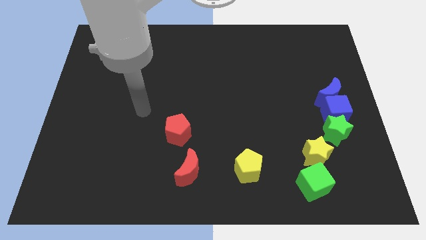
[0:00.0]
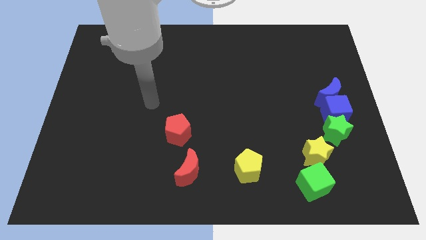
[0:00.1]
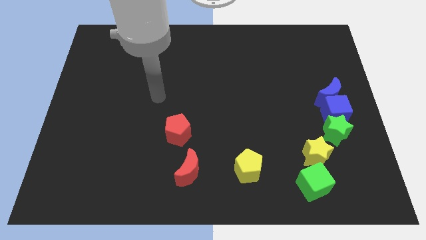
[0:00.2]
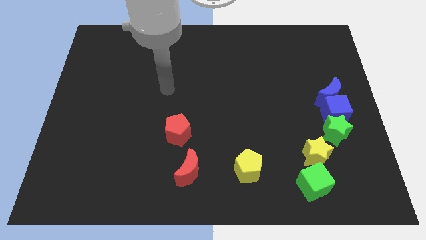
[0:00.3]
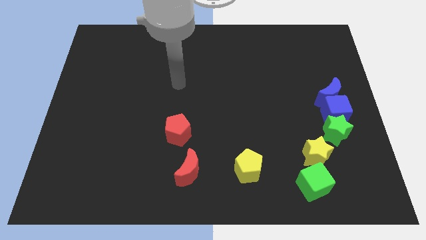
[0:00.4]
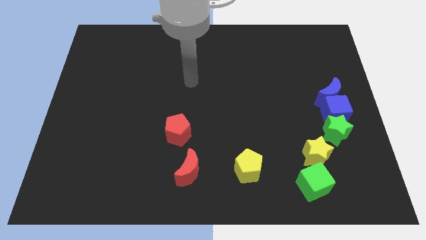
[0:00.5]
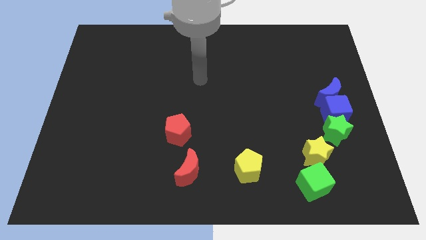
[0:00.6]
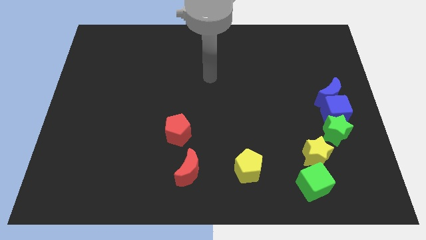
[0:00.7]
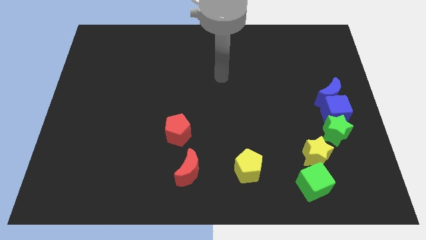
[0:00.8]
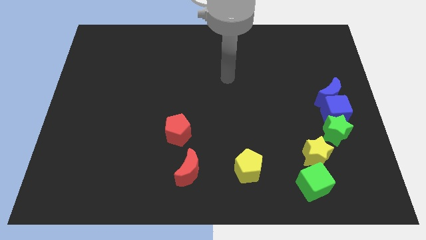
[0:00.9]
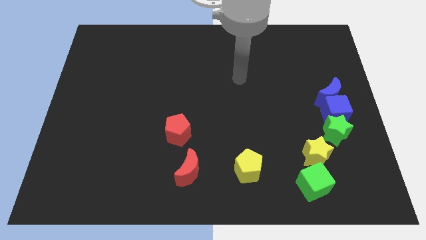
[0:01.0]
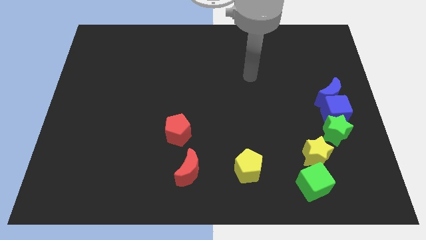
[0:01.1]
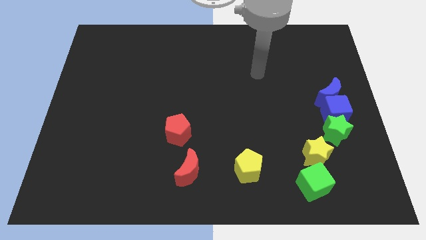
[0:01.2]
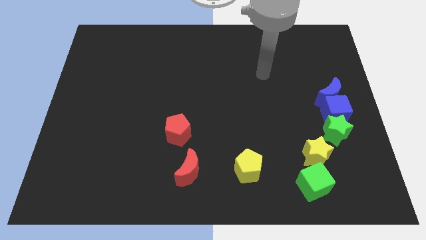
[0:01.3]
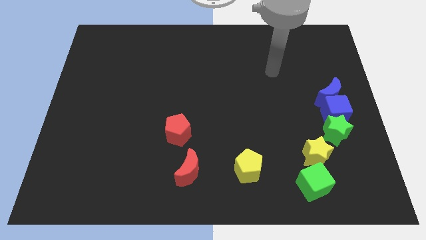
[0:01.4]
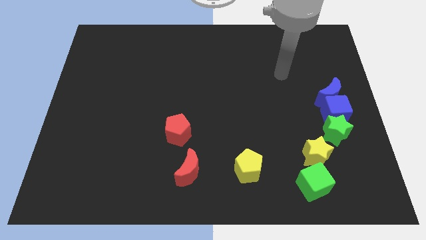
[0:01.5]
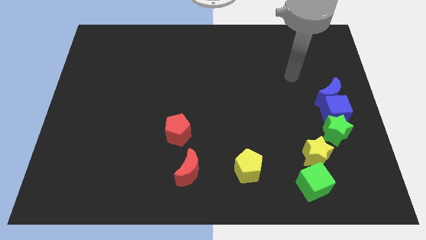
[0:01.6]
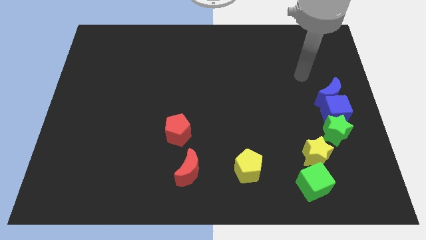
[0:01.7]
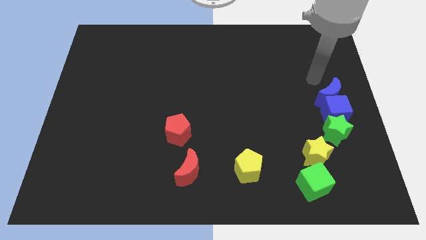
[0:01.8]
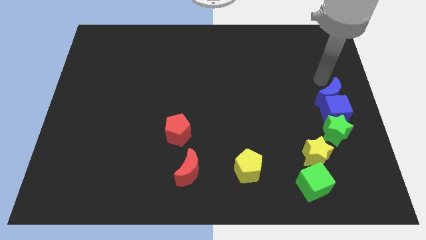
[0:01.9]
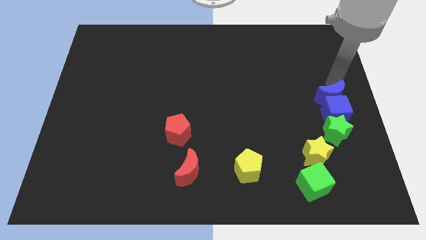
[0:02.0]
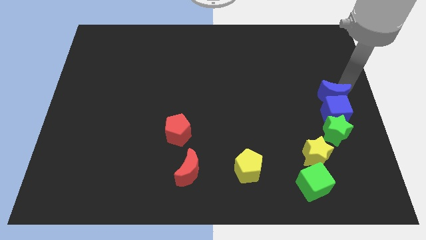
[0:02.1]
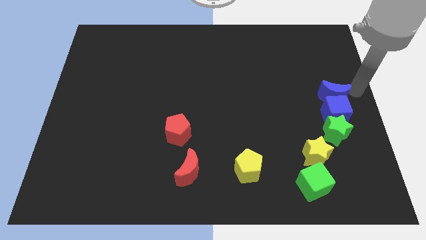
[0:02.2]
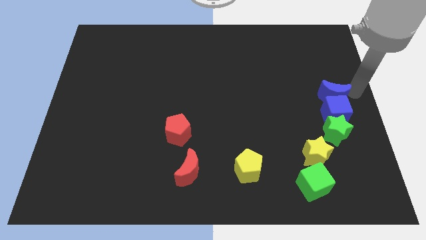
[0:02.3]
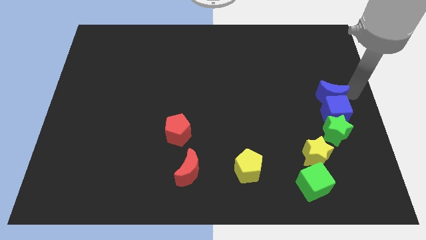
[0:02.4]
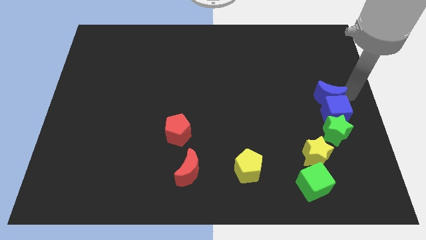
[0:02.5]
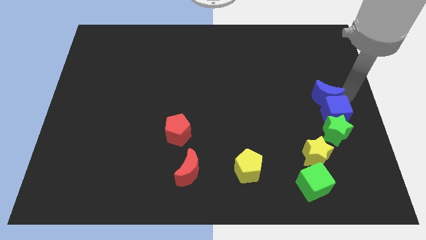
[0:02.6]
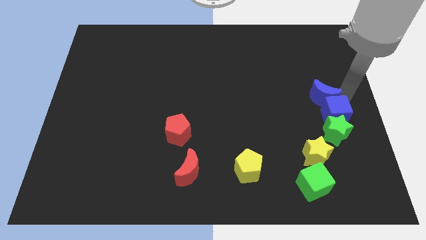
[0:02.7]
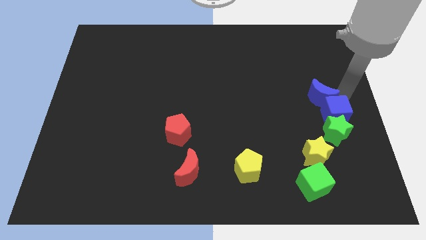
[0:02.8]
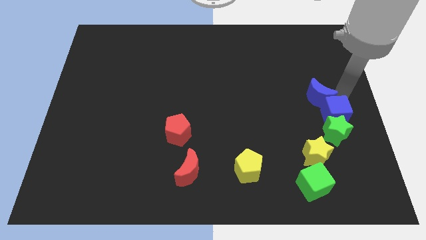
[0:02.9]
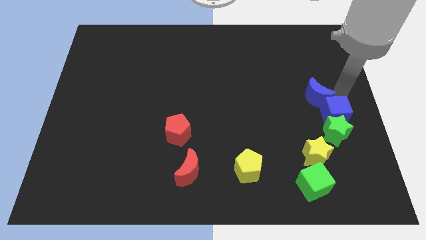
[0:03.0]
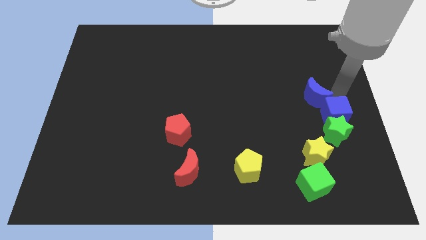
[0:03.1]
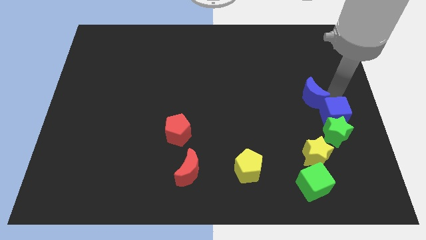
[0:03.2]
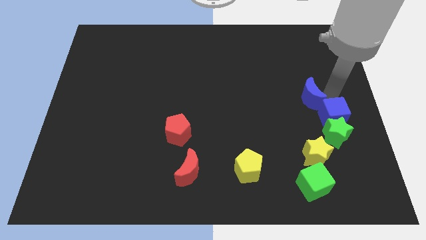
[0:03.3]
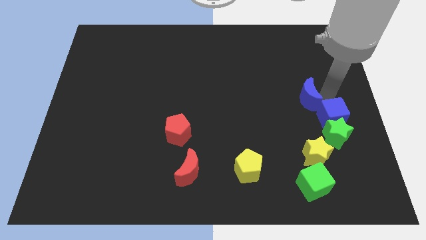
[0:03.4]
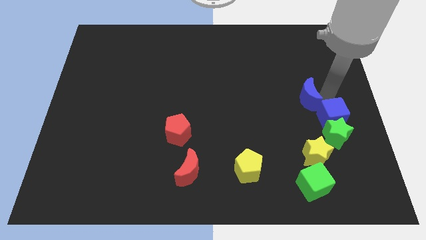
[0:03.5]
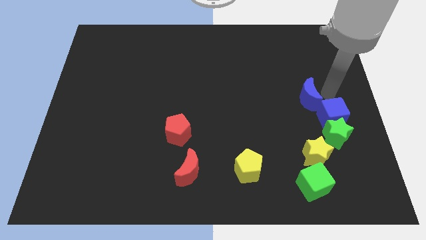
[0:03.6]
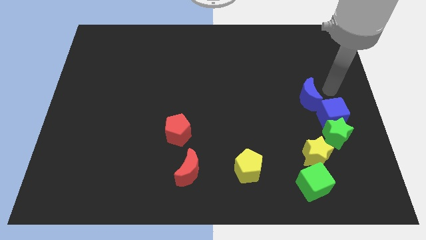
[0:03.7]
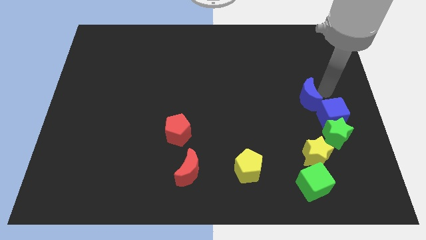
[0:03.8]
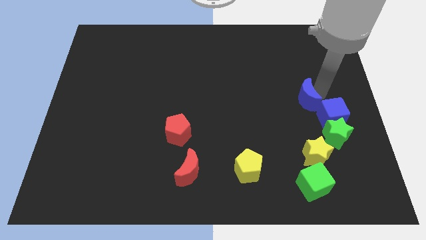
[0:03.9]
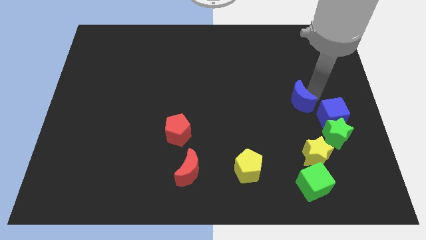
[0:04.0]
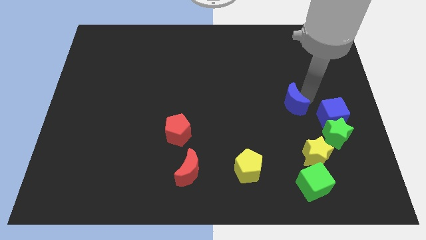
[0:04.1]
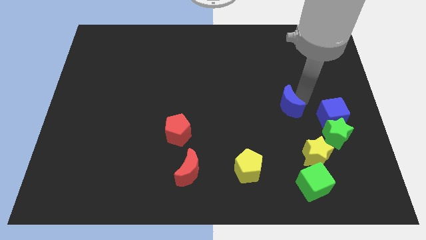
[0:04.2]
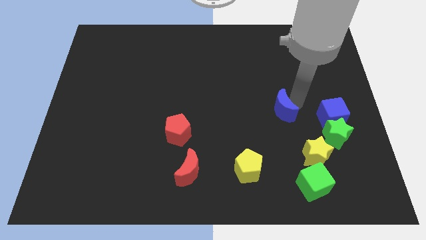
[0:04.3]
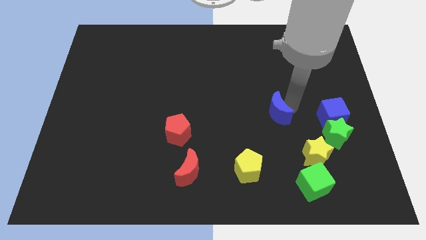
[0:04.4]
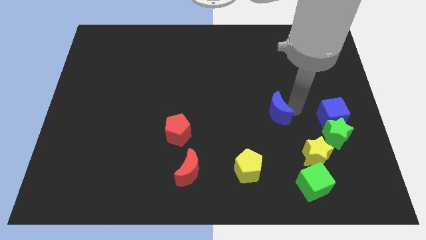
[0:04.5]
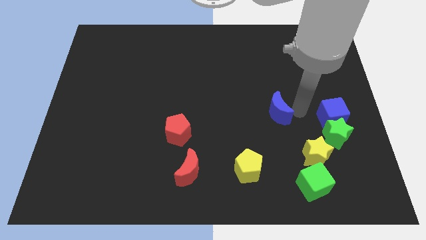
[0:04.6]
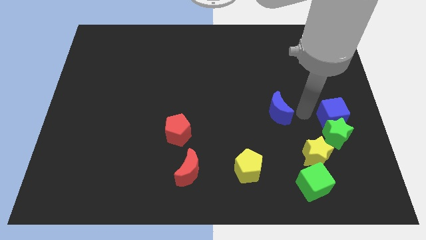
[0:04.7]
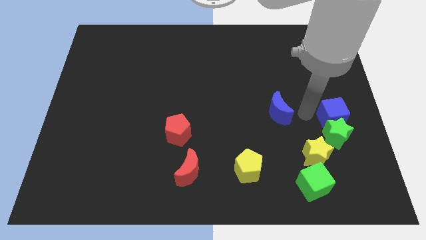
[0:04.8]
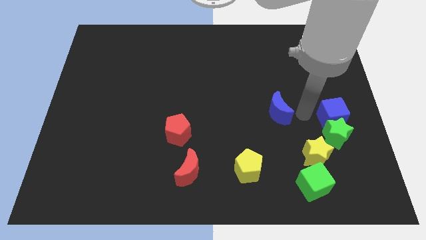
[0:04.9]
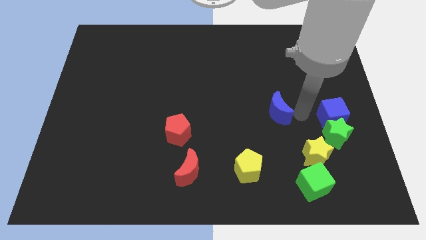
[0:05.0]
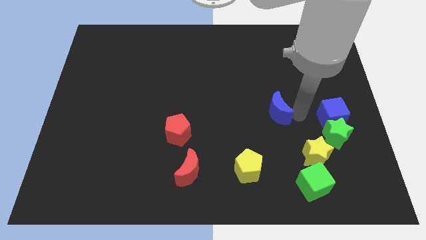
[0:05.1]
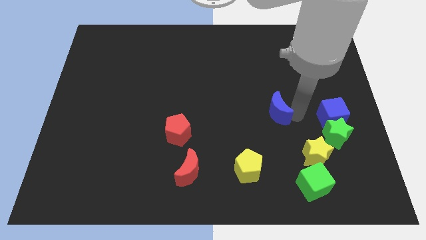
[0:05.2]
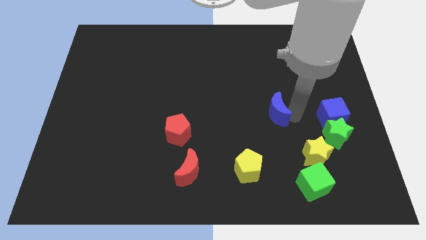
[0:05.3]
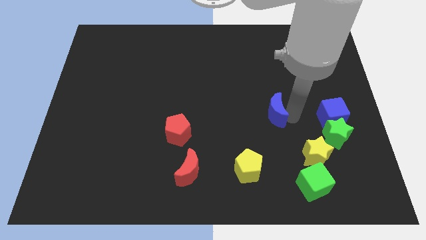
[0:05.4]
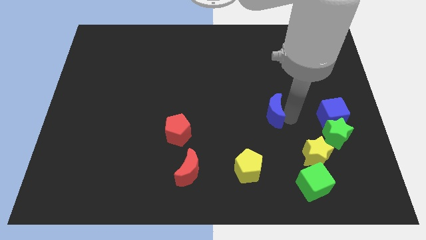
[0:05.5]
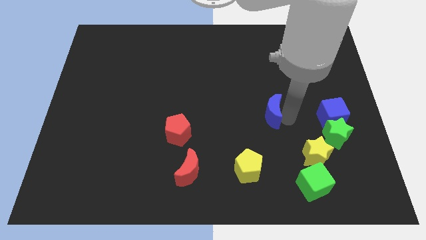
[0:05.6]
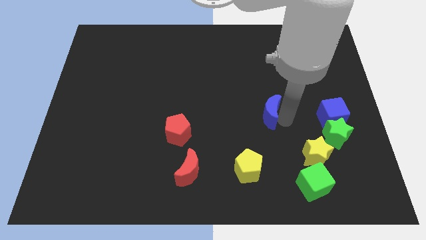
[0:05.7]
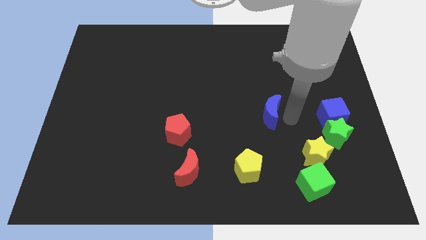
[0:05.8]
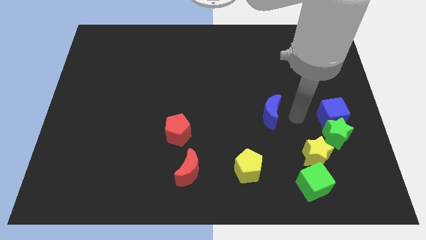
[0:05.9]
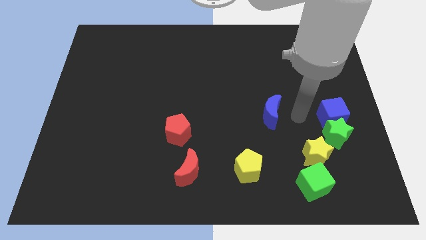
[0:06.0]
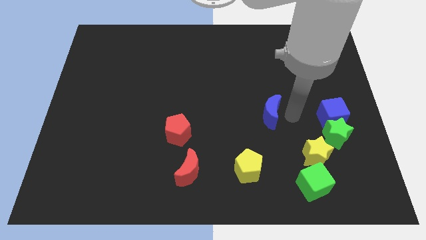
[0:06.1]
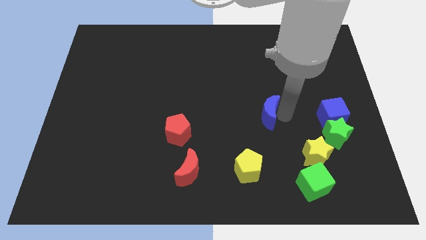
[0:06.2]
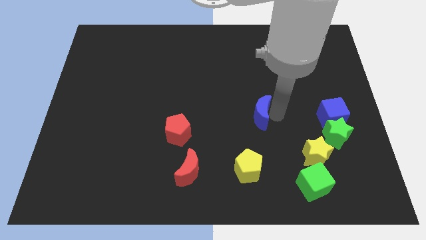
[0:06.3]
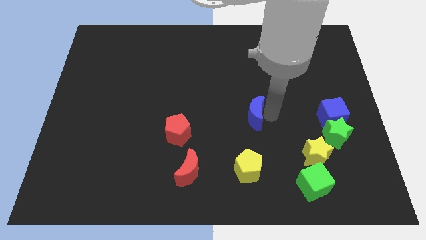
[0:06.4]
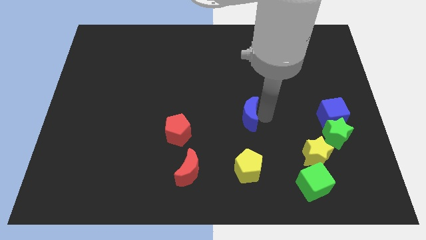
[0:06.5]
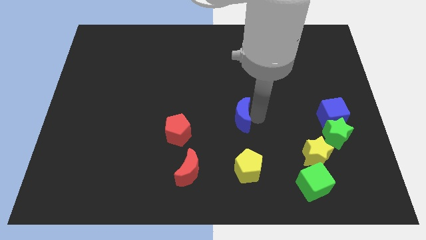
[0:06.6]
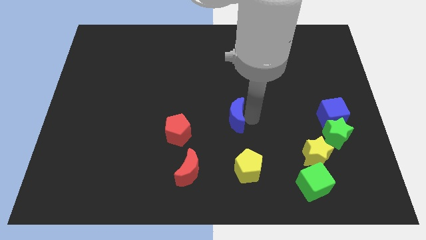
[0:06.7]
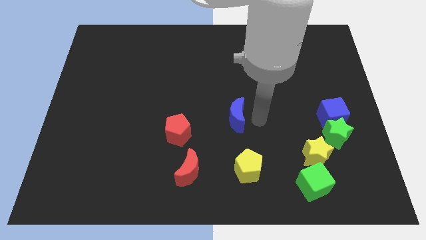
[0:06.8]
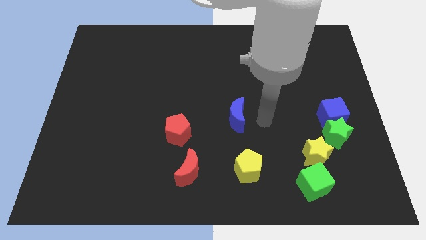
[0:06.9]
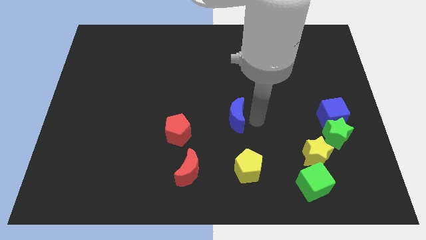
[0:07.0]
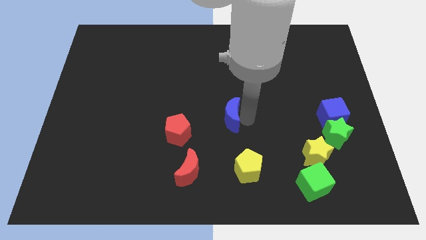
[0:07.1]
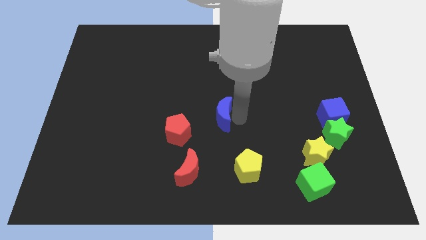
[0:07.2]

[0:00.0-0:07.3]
push the blue moon diagonally up and to the right of the red pentagon

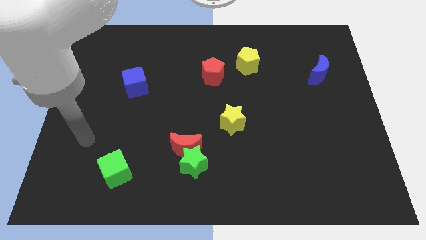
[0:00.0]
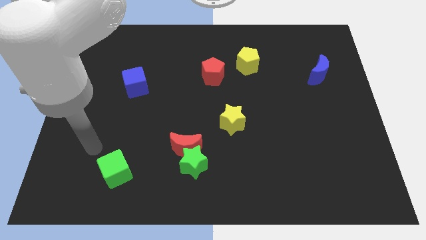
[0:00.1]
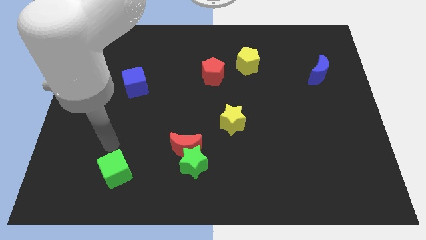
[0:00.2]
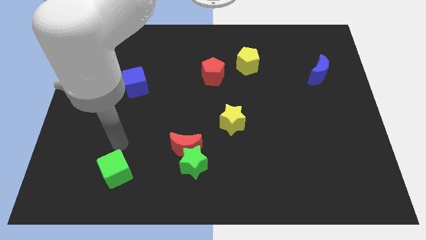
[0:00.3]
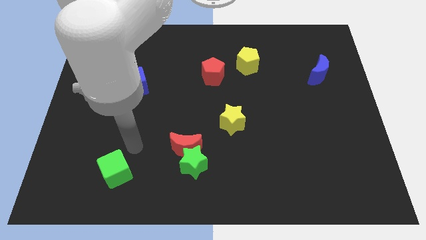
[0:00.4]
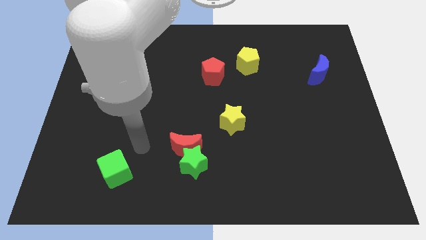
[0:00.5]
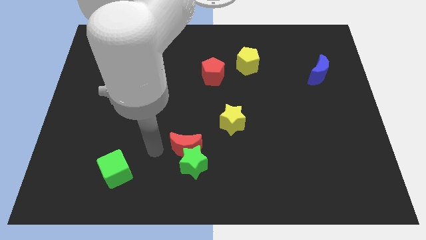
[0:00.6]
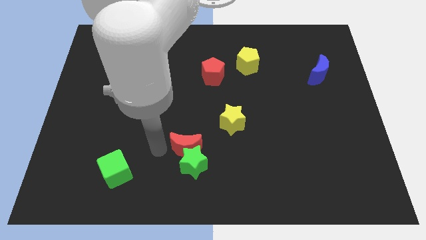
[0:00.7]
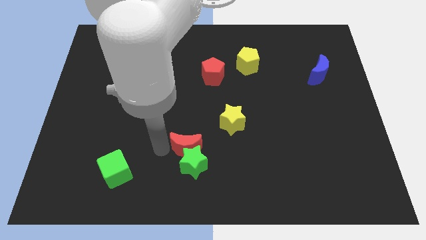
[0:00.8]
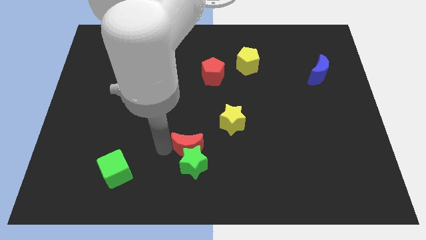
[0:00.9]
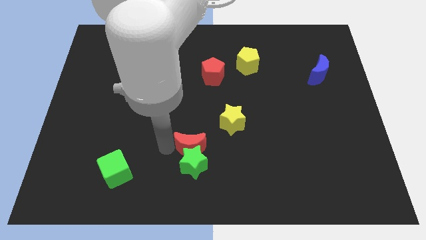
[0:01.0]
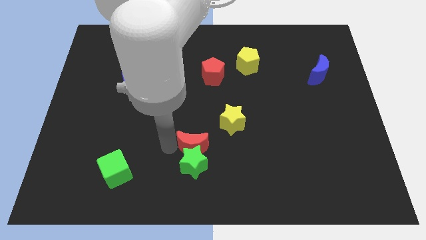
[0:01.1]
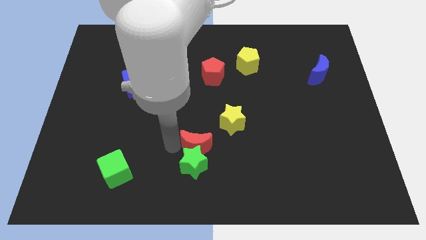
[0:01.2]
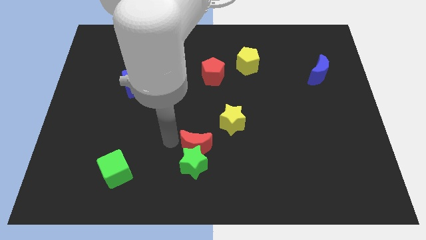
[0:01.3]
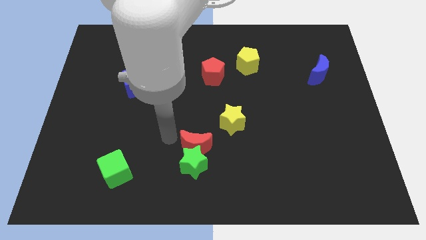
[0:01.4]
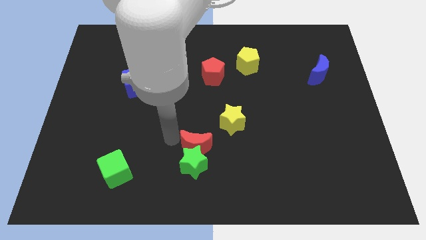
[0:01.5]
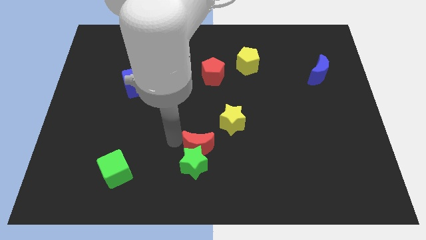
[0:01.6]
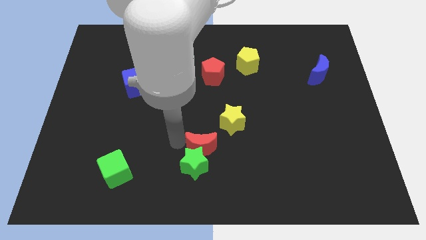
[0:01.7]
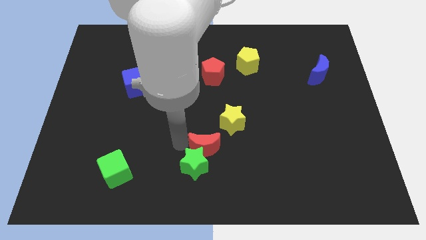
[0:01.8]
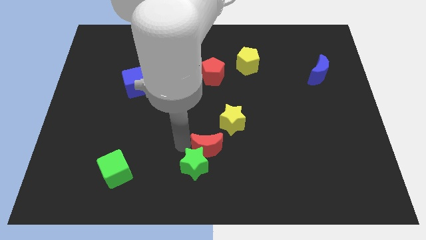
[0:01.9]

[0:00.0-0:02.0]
push the red moon just right of the green star
